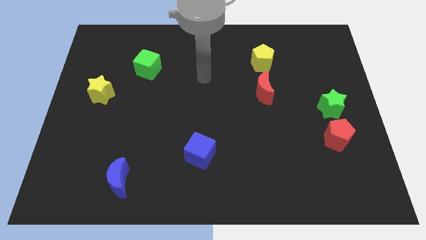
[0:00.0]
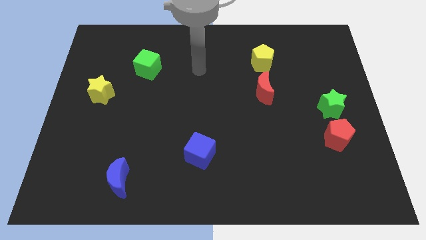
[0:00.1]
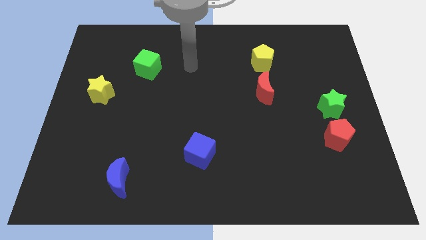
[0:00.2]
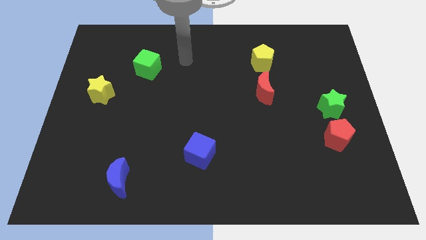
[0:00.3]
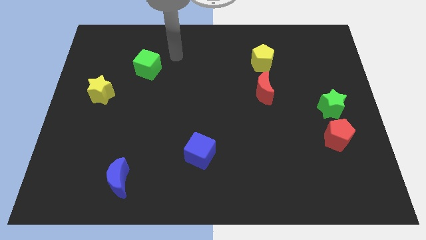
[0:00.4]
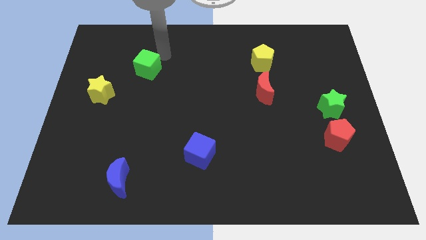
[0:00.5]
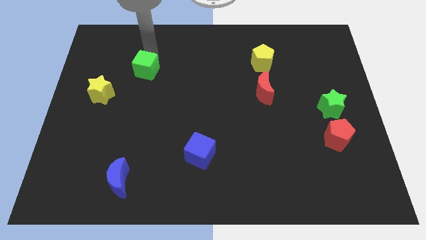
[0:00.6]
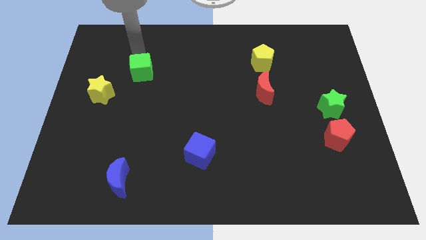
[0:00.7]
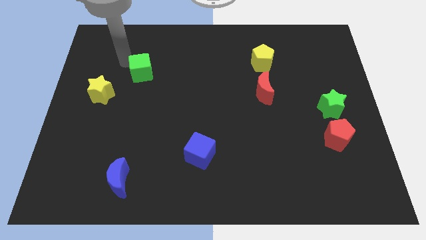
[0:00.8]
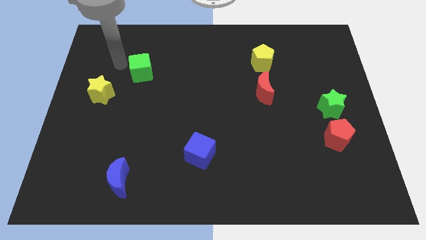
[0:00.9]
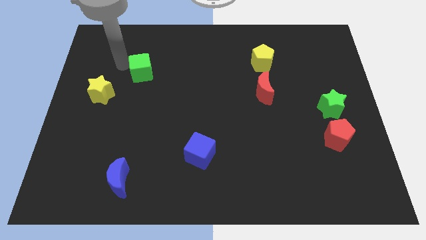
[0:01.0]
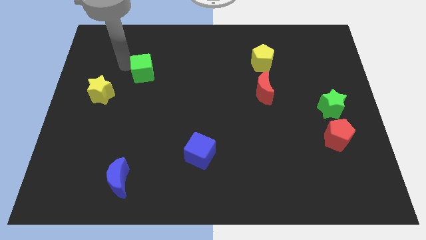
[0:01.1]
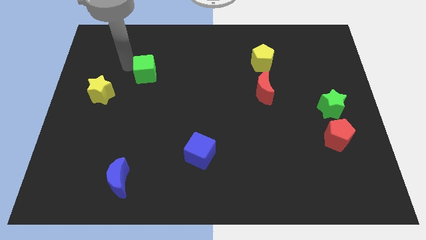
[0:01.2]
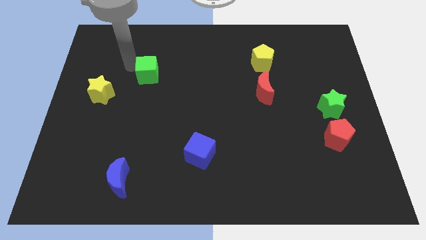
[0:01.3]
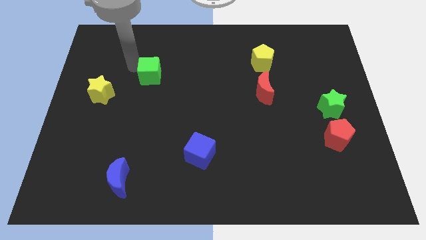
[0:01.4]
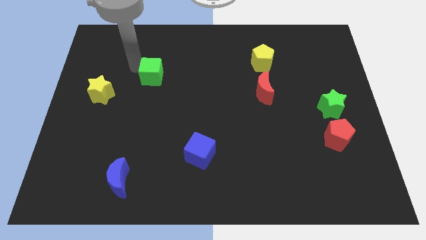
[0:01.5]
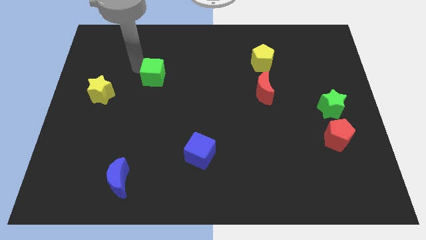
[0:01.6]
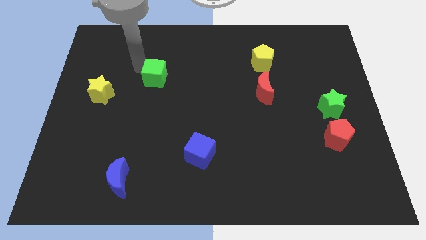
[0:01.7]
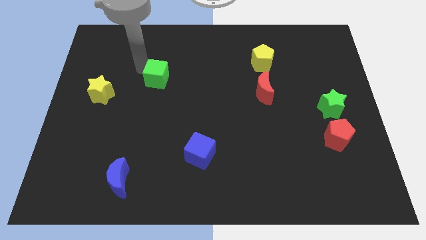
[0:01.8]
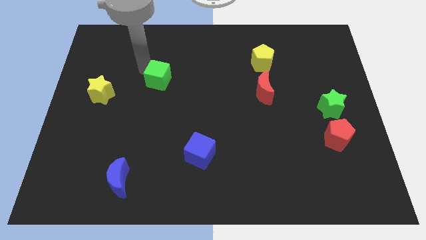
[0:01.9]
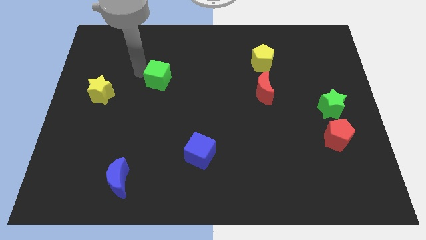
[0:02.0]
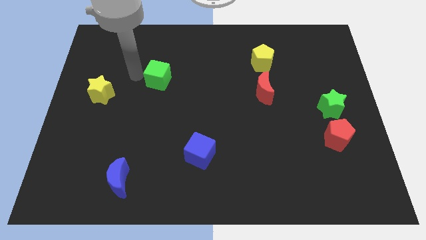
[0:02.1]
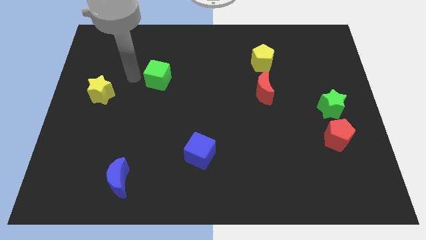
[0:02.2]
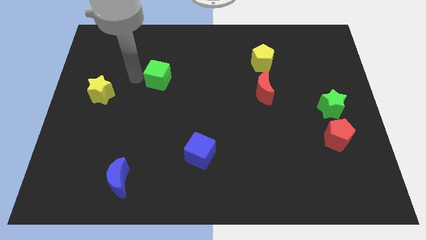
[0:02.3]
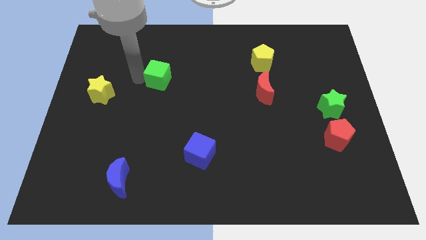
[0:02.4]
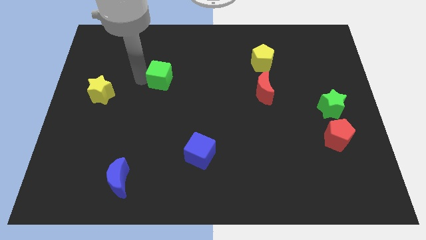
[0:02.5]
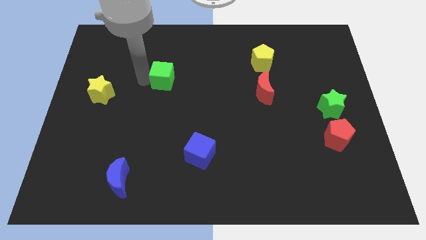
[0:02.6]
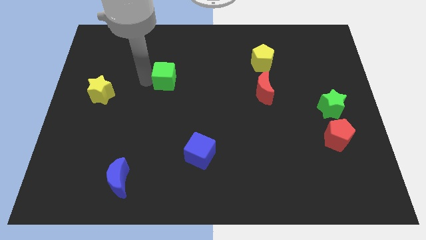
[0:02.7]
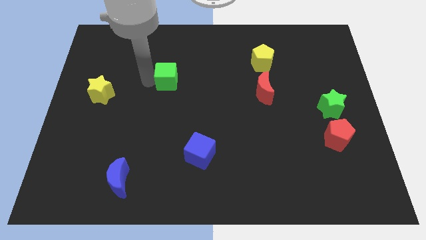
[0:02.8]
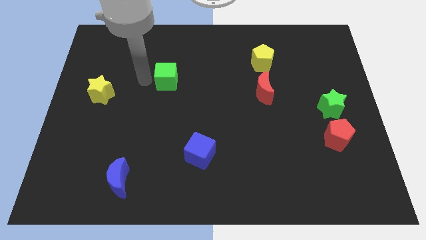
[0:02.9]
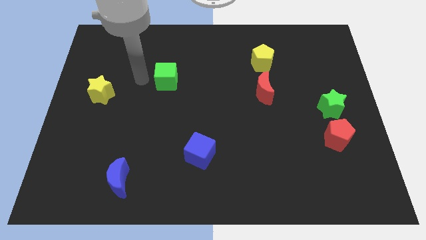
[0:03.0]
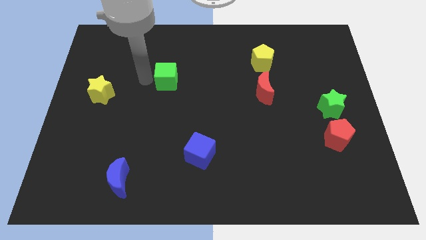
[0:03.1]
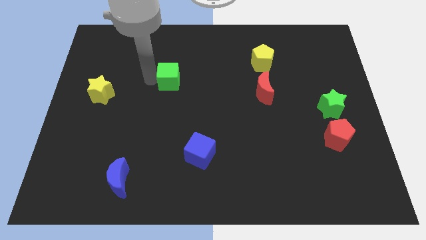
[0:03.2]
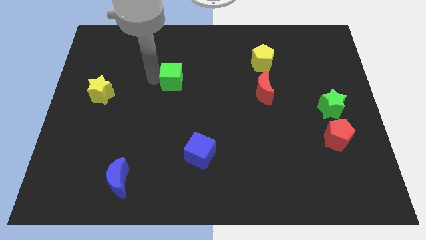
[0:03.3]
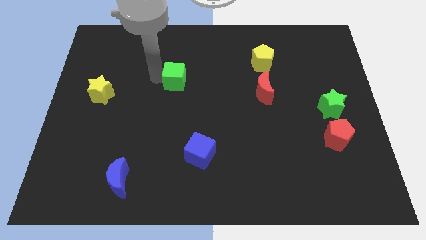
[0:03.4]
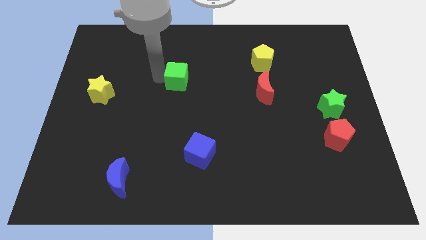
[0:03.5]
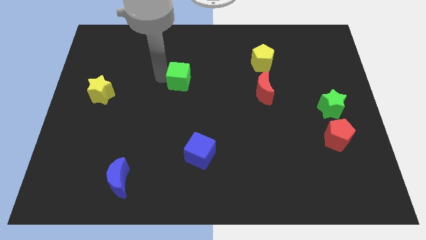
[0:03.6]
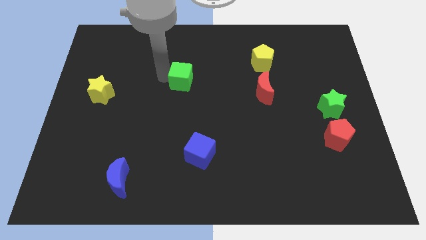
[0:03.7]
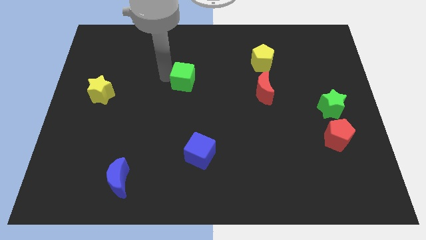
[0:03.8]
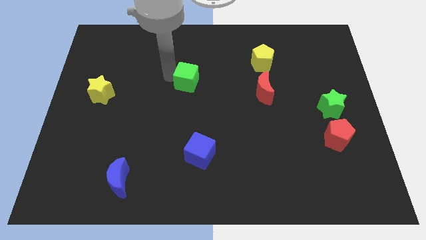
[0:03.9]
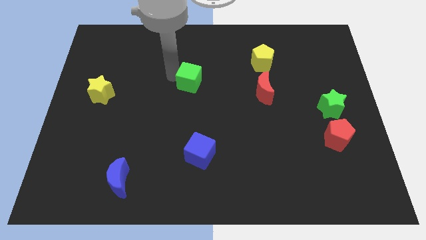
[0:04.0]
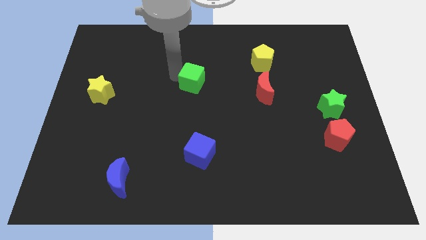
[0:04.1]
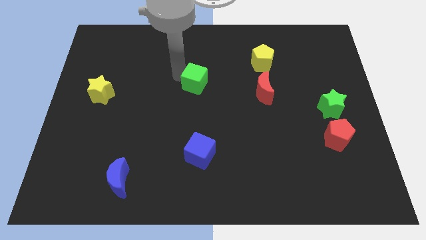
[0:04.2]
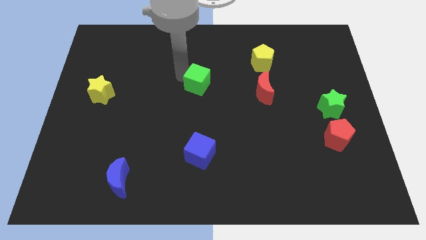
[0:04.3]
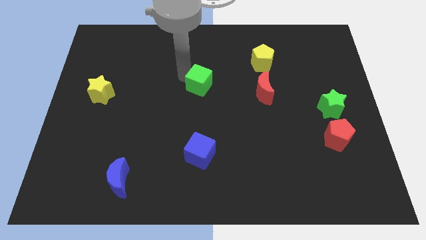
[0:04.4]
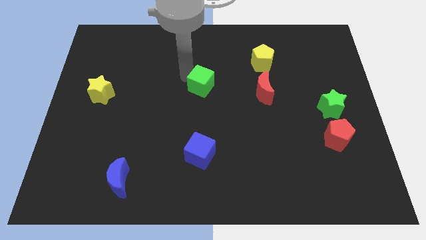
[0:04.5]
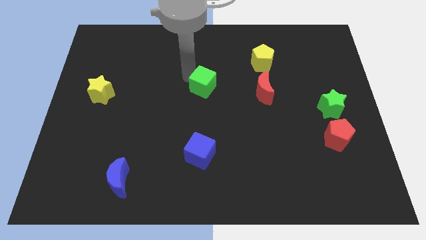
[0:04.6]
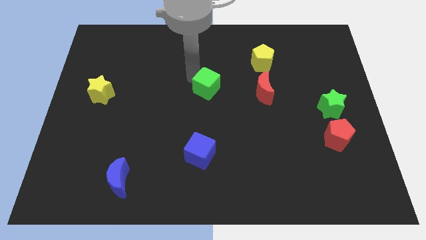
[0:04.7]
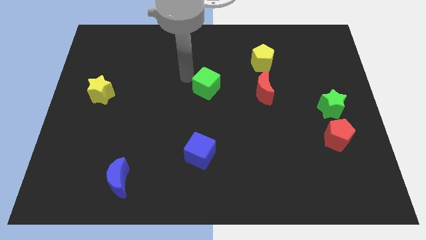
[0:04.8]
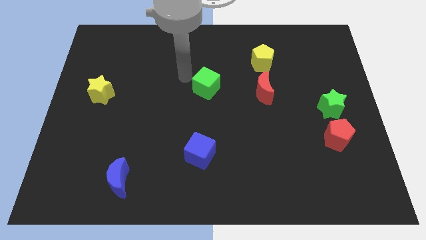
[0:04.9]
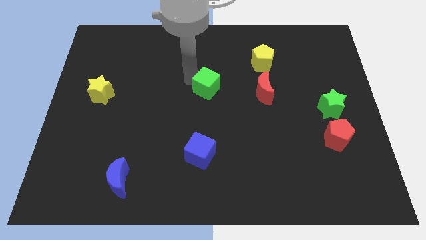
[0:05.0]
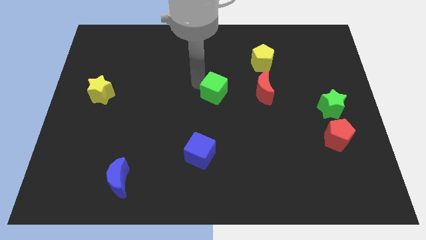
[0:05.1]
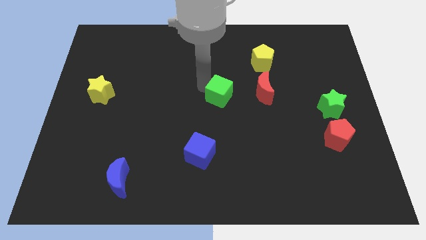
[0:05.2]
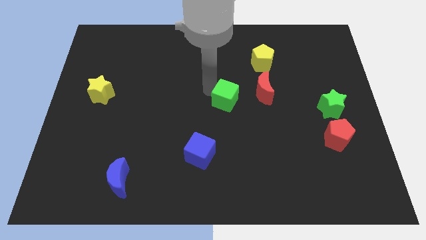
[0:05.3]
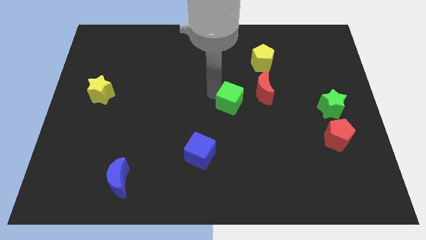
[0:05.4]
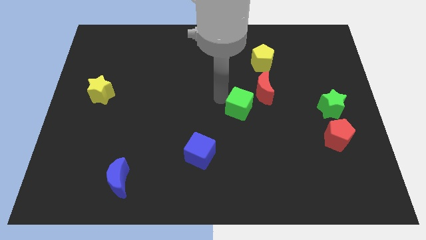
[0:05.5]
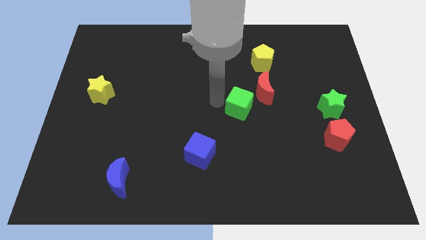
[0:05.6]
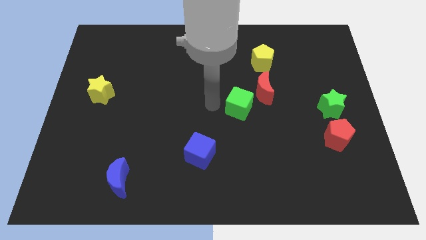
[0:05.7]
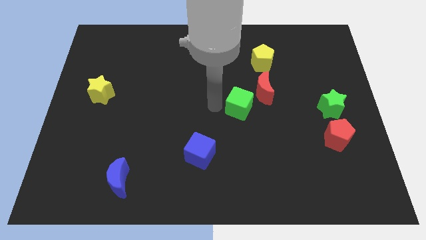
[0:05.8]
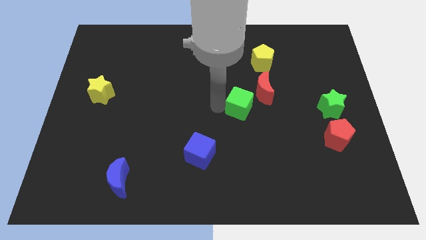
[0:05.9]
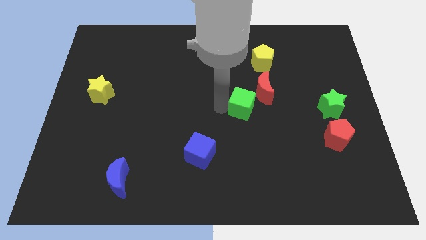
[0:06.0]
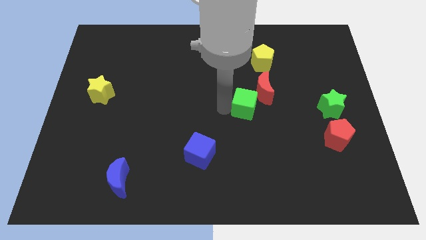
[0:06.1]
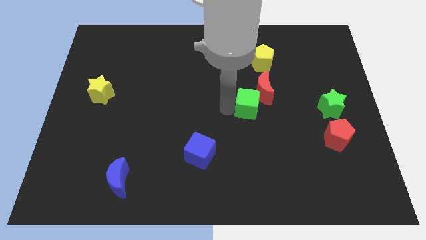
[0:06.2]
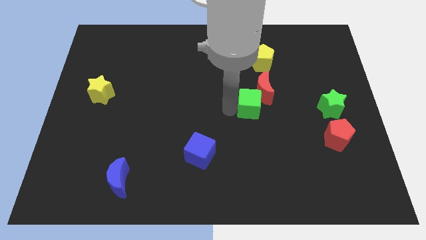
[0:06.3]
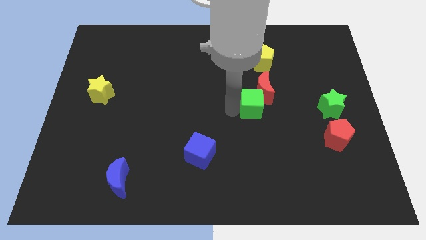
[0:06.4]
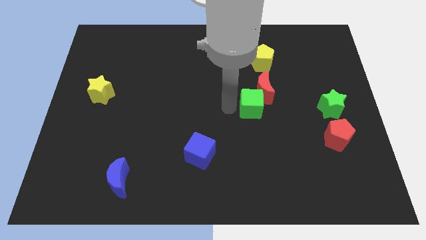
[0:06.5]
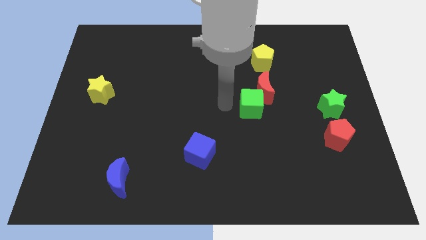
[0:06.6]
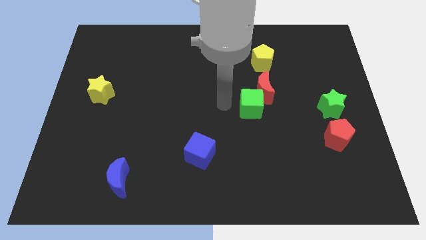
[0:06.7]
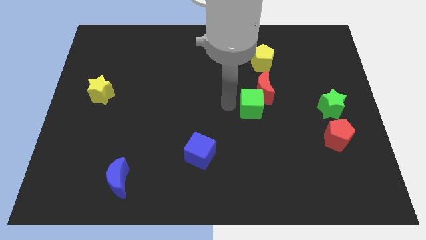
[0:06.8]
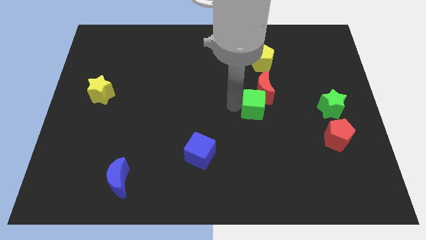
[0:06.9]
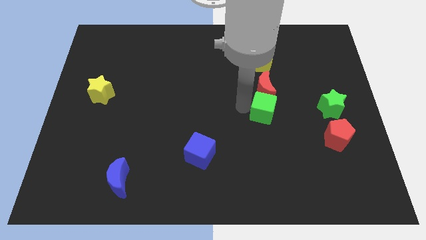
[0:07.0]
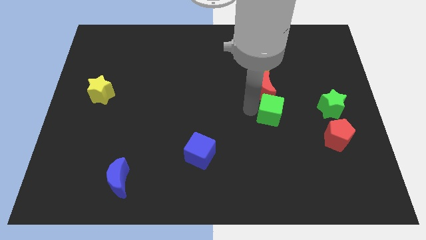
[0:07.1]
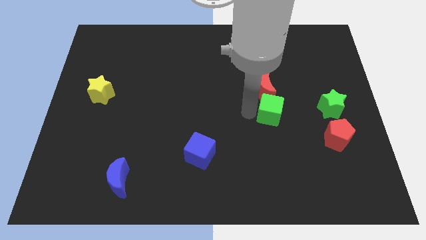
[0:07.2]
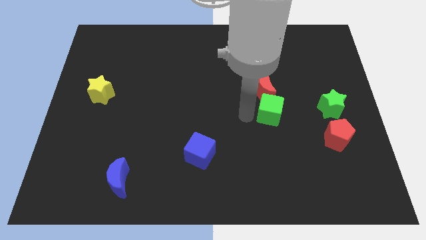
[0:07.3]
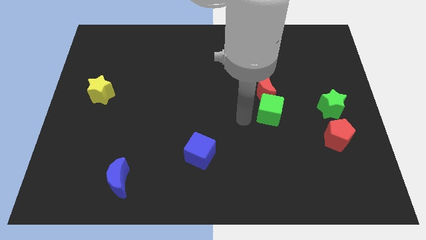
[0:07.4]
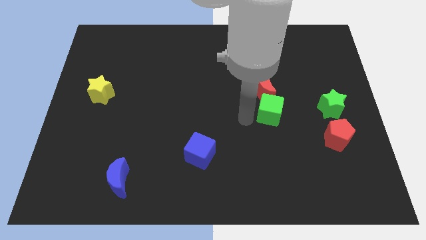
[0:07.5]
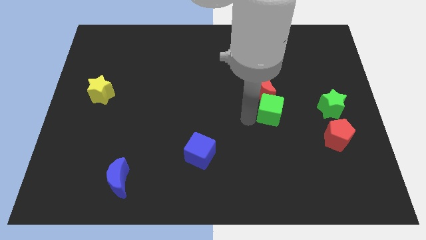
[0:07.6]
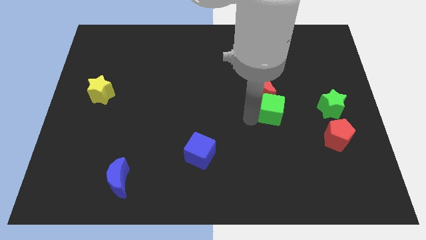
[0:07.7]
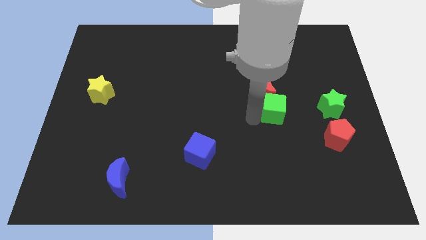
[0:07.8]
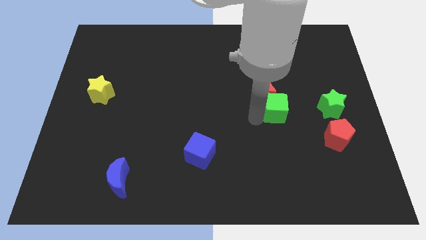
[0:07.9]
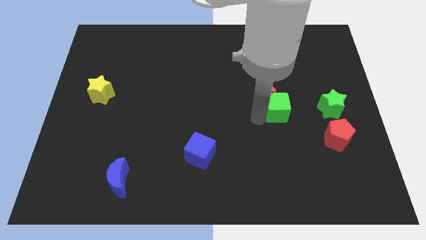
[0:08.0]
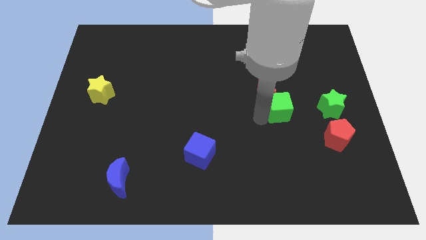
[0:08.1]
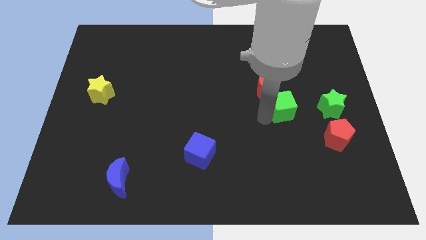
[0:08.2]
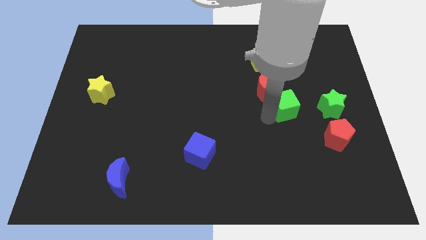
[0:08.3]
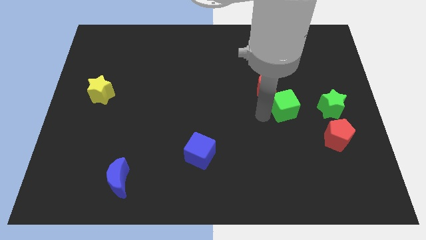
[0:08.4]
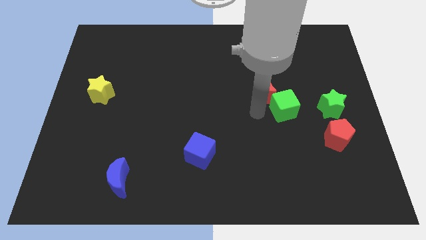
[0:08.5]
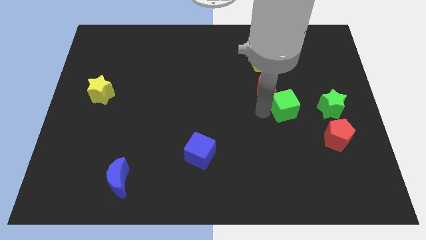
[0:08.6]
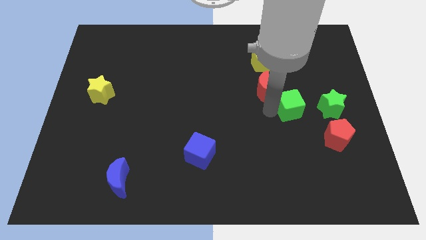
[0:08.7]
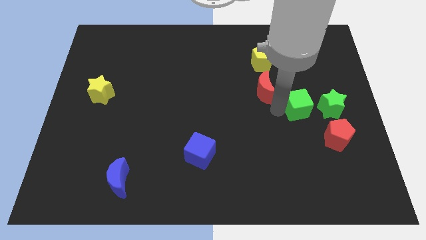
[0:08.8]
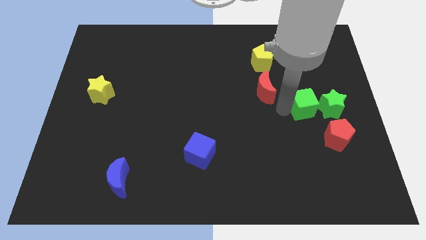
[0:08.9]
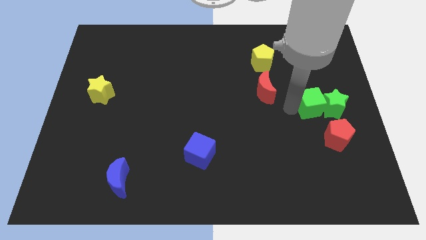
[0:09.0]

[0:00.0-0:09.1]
move the green cube towards the green star
